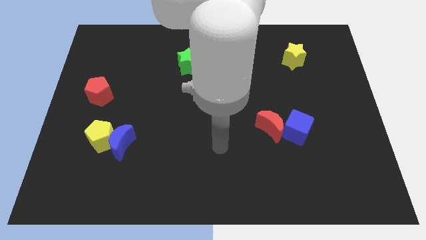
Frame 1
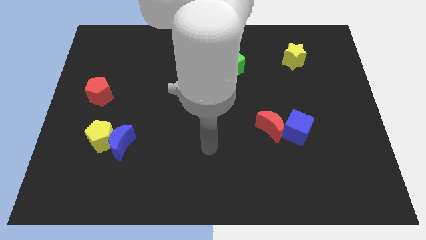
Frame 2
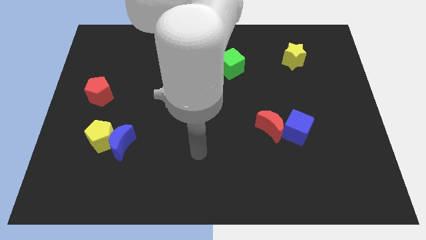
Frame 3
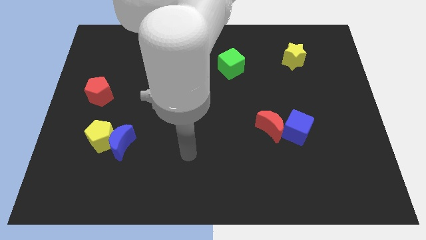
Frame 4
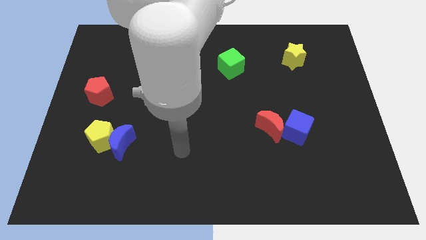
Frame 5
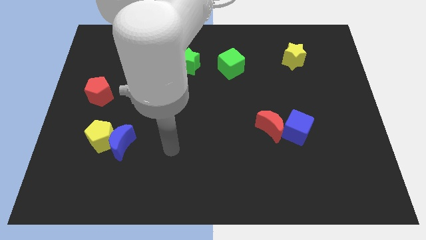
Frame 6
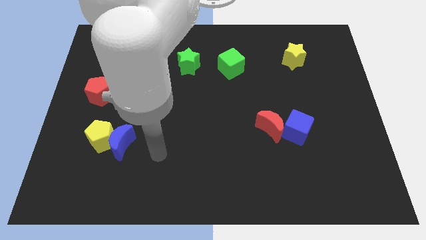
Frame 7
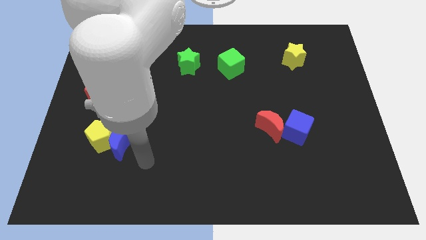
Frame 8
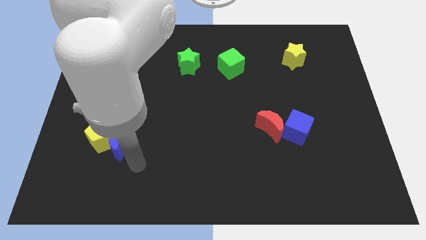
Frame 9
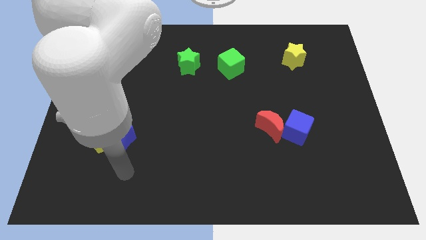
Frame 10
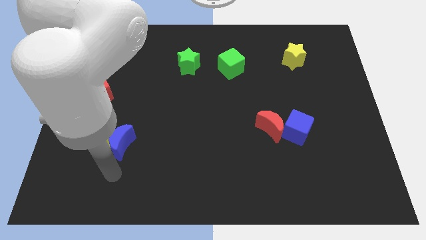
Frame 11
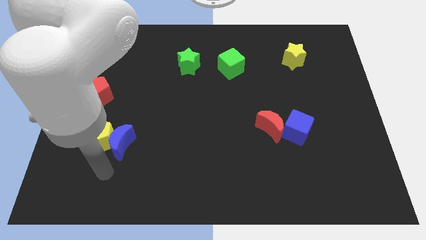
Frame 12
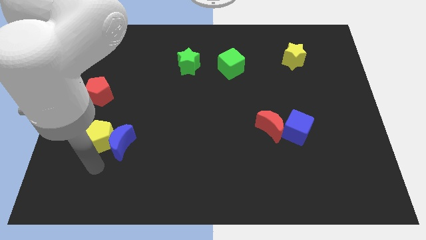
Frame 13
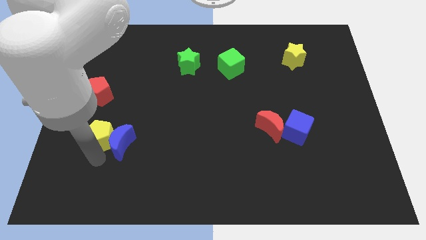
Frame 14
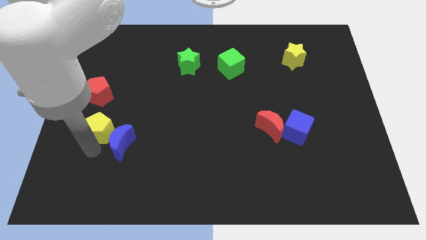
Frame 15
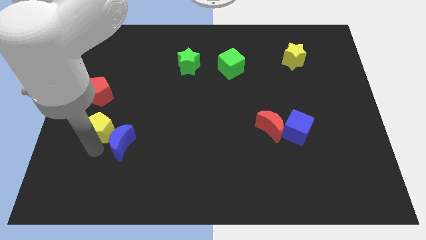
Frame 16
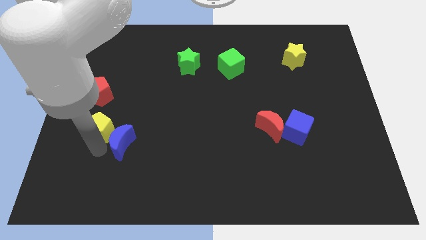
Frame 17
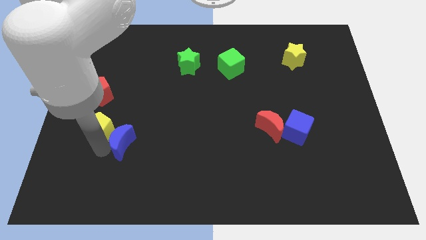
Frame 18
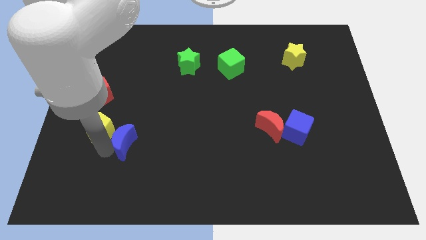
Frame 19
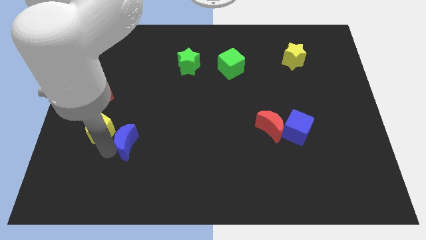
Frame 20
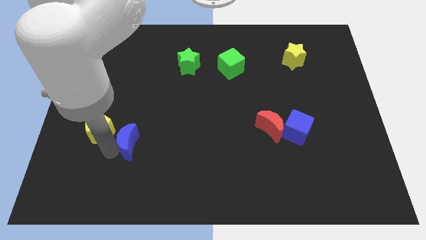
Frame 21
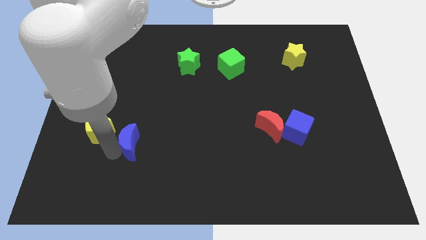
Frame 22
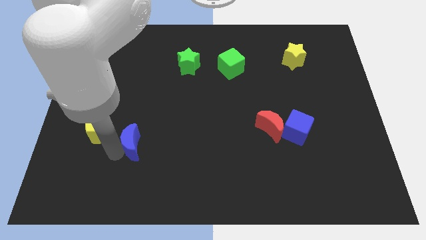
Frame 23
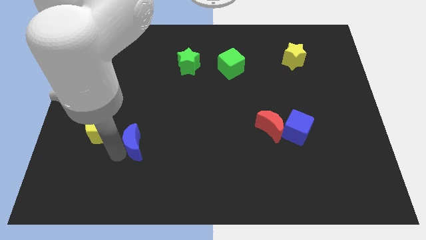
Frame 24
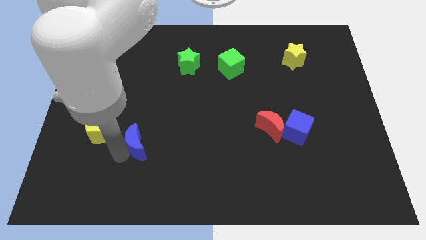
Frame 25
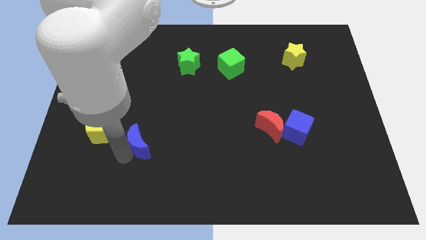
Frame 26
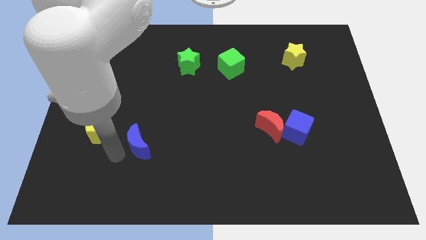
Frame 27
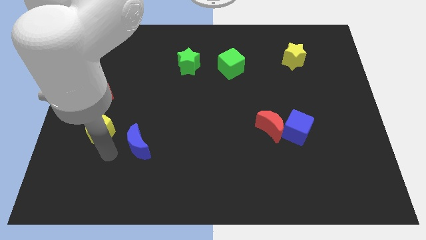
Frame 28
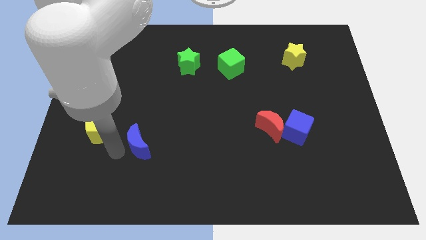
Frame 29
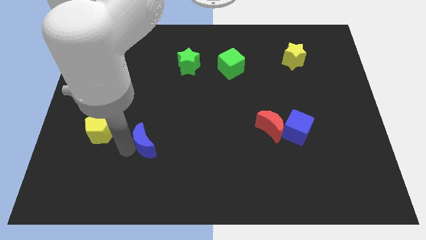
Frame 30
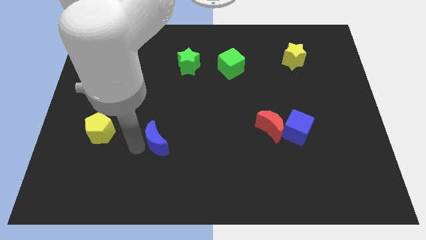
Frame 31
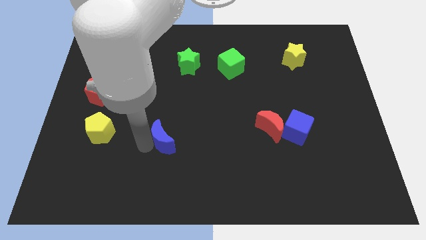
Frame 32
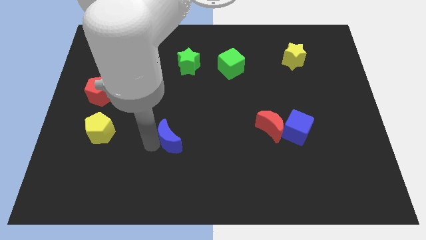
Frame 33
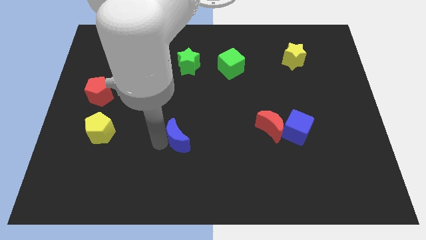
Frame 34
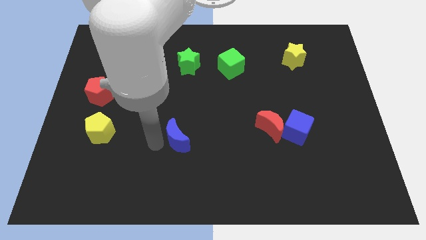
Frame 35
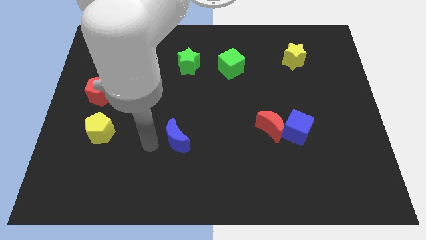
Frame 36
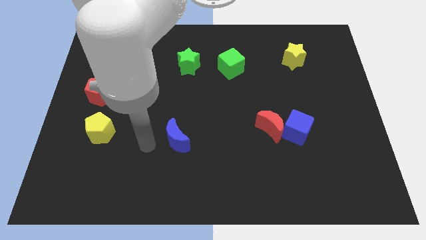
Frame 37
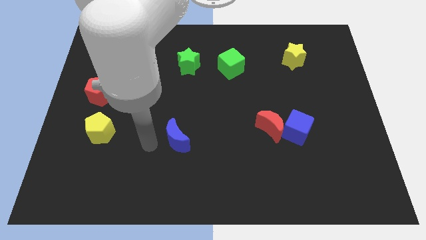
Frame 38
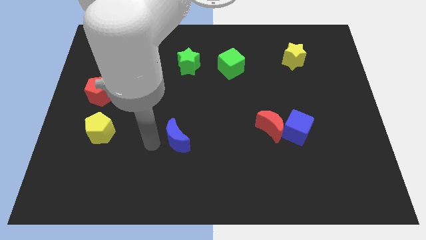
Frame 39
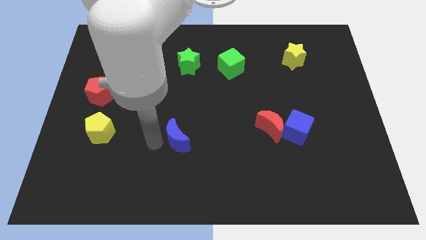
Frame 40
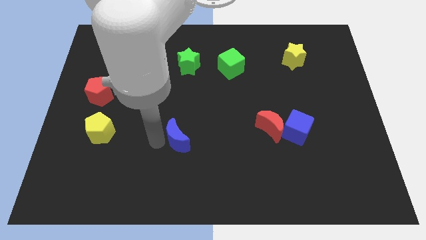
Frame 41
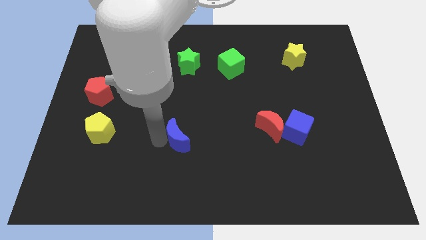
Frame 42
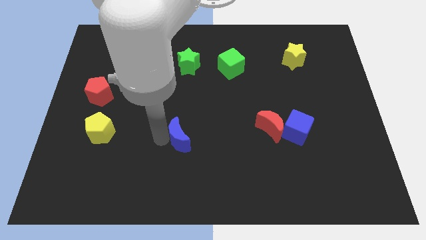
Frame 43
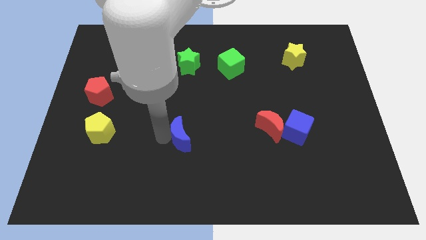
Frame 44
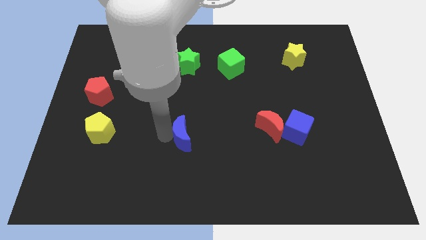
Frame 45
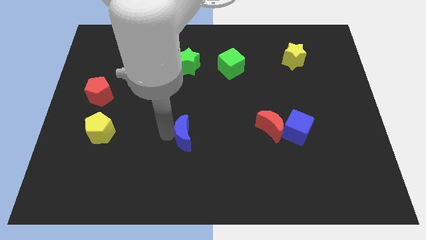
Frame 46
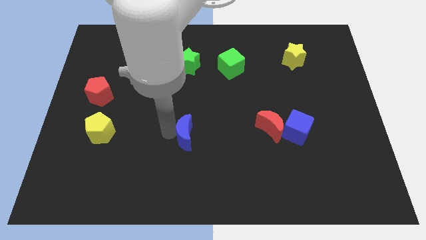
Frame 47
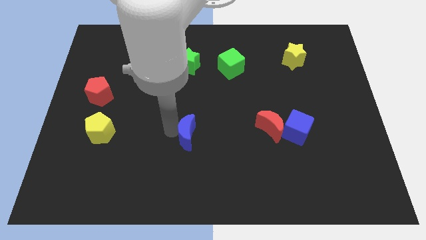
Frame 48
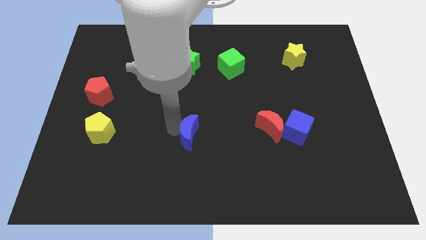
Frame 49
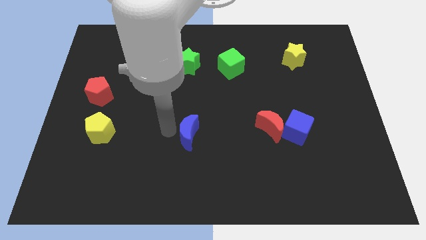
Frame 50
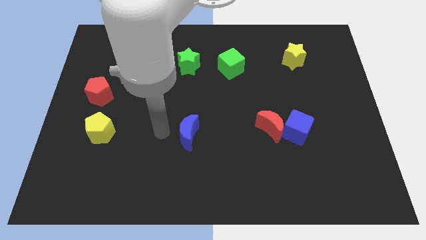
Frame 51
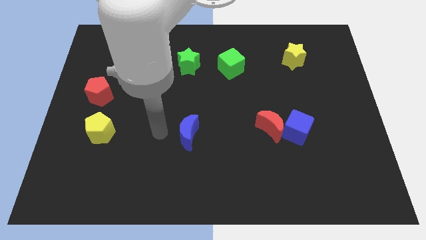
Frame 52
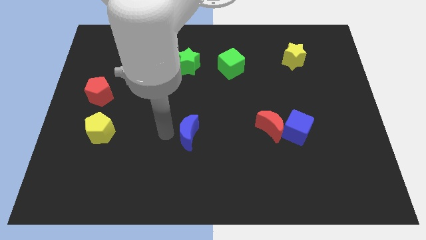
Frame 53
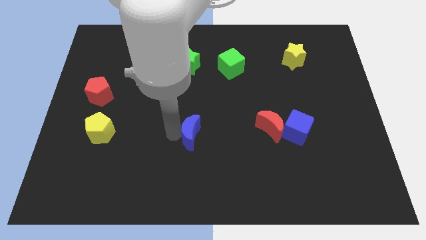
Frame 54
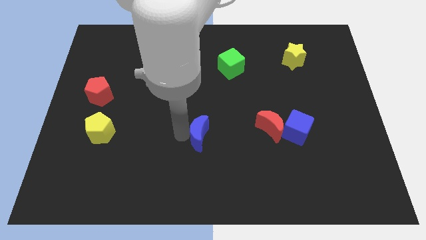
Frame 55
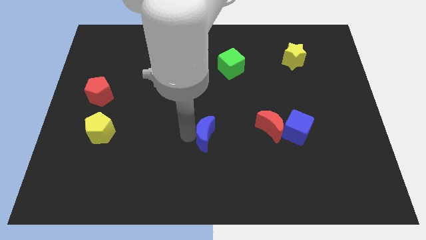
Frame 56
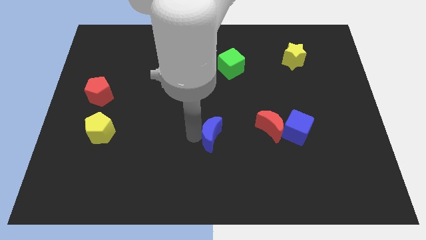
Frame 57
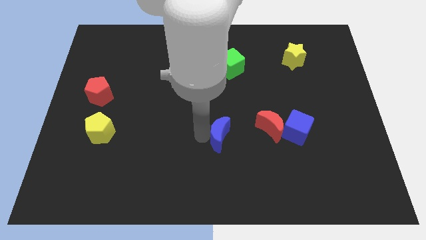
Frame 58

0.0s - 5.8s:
move the blue moon to the right

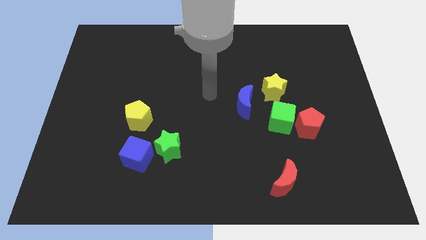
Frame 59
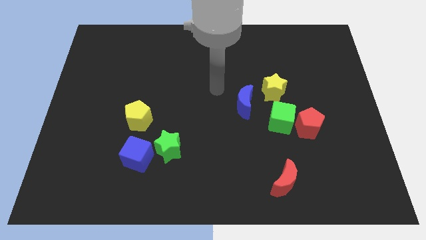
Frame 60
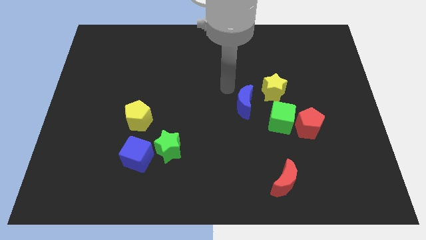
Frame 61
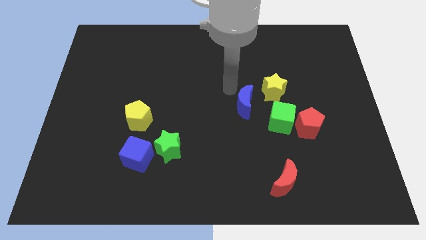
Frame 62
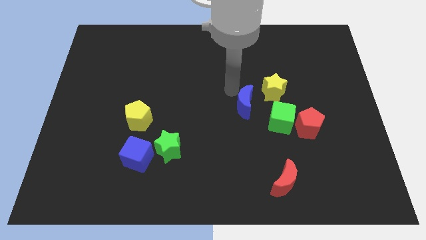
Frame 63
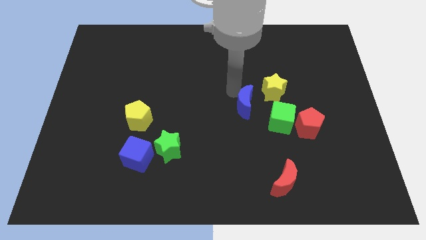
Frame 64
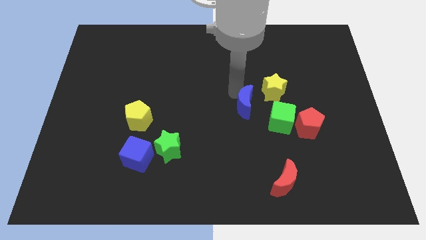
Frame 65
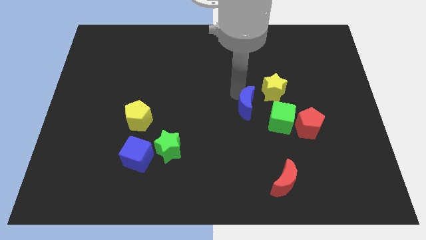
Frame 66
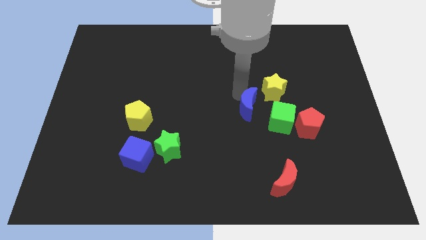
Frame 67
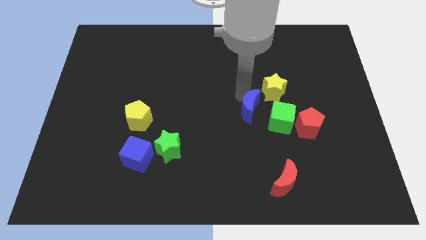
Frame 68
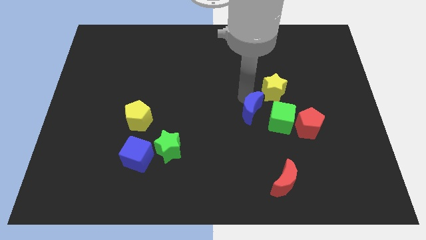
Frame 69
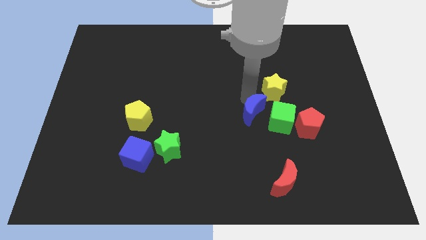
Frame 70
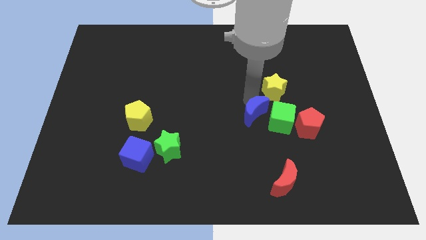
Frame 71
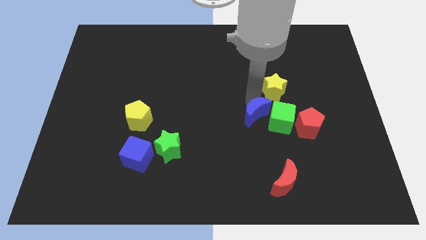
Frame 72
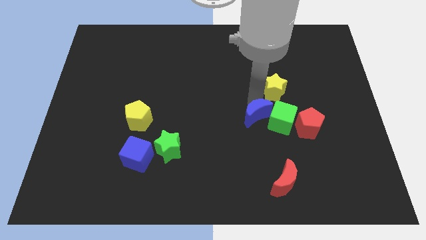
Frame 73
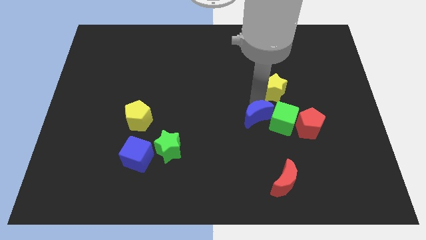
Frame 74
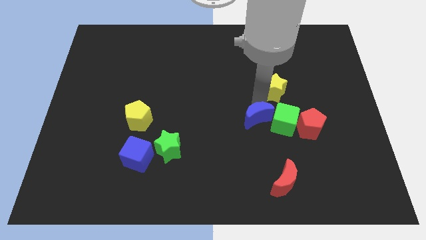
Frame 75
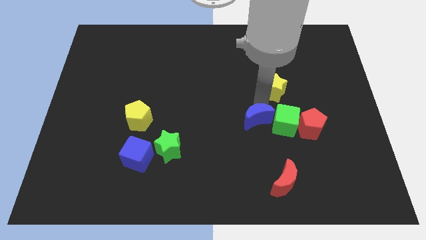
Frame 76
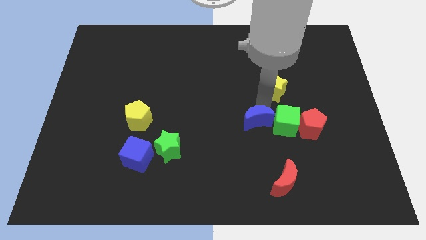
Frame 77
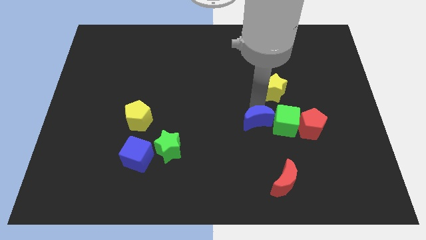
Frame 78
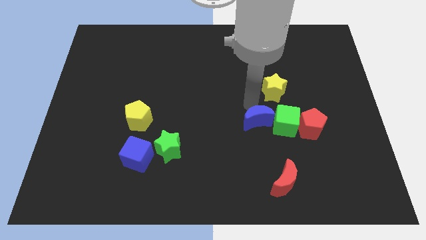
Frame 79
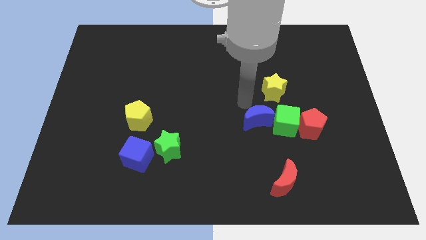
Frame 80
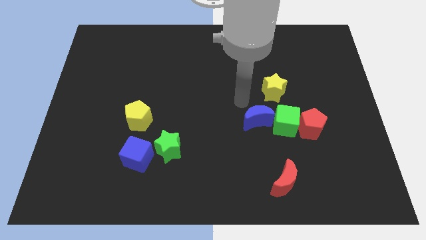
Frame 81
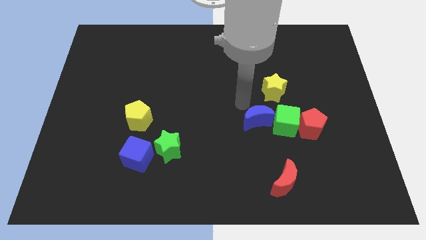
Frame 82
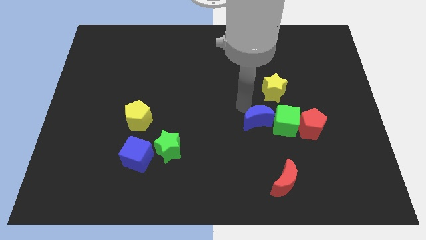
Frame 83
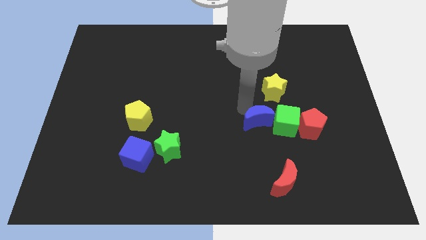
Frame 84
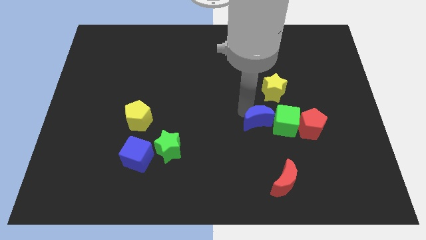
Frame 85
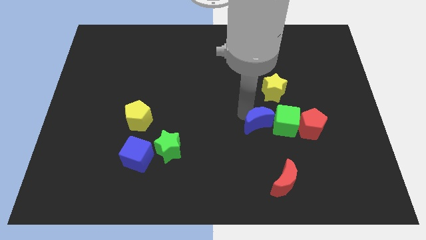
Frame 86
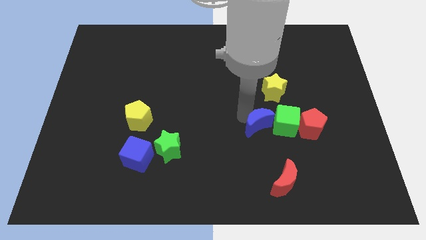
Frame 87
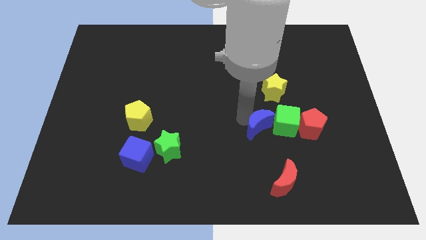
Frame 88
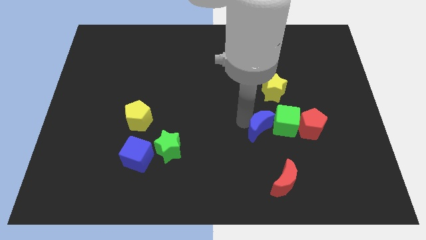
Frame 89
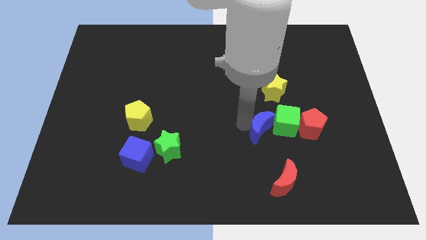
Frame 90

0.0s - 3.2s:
push the blue moon slightly diagonally downwards and to the right
